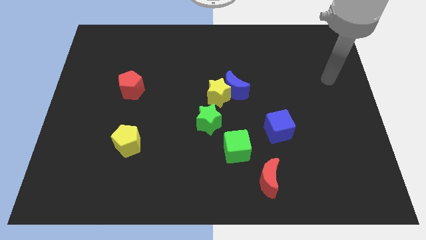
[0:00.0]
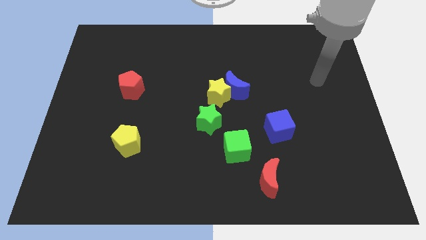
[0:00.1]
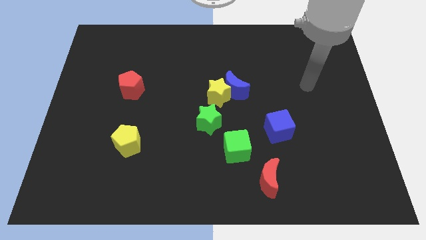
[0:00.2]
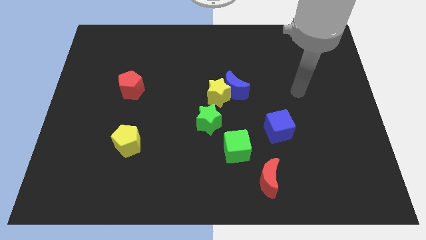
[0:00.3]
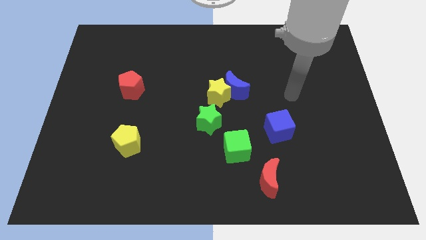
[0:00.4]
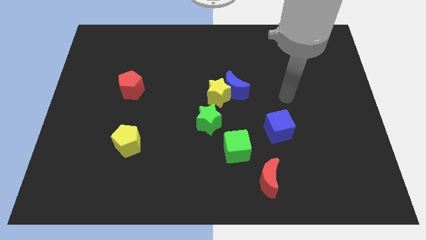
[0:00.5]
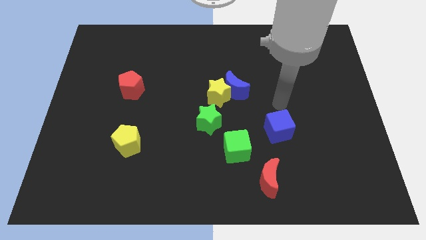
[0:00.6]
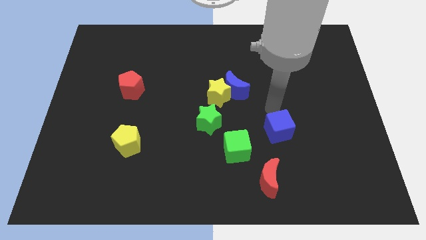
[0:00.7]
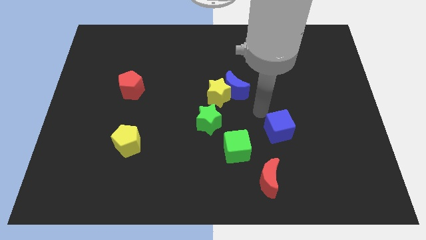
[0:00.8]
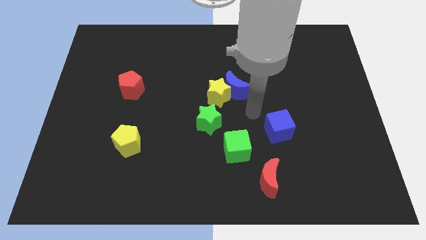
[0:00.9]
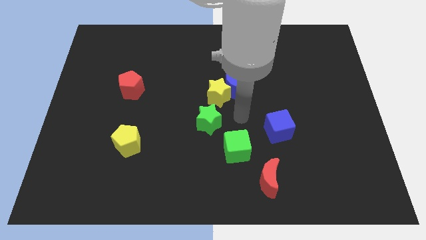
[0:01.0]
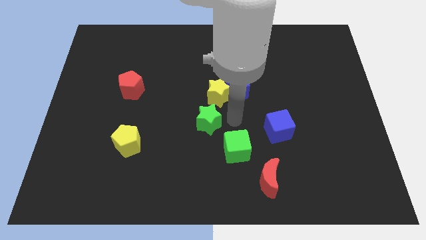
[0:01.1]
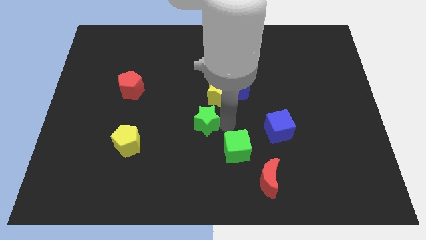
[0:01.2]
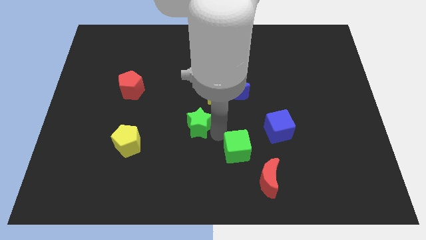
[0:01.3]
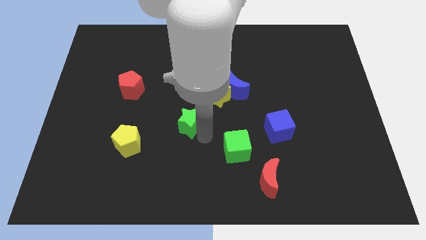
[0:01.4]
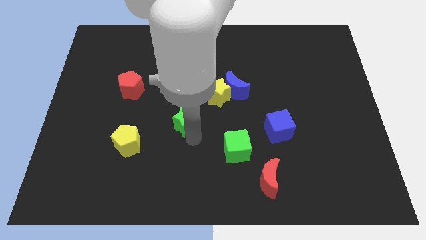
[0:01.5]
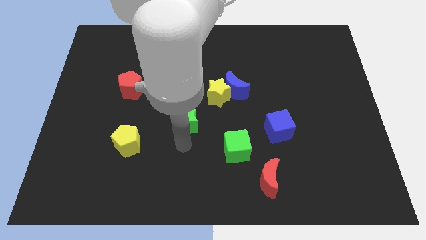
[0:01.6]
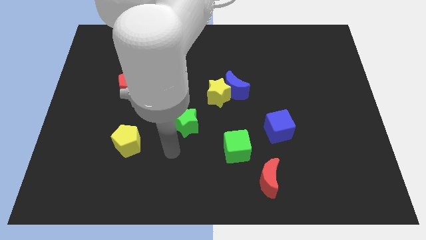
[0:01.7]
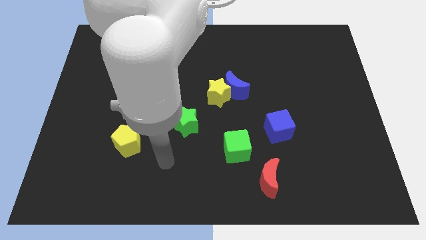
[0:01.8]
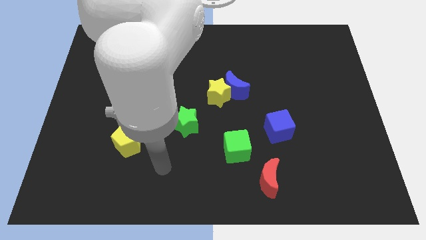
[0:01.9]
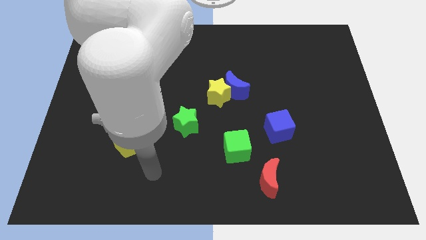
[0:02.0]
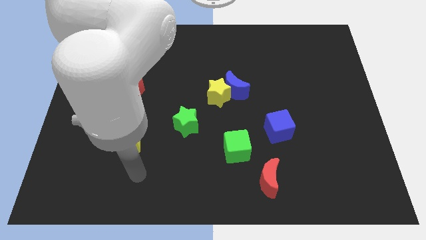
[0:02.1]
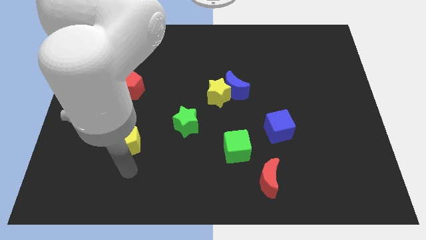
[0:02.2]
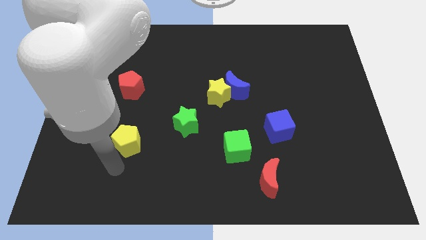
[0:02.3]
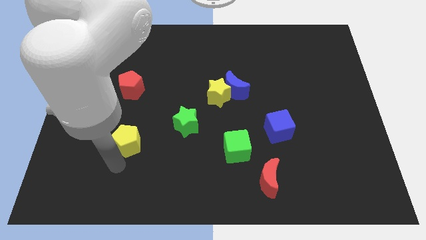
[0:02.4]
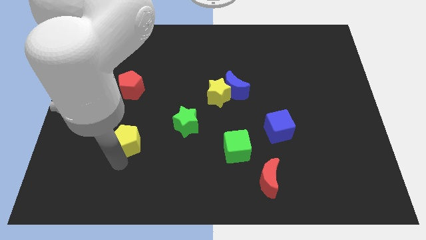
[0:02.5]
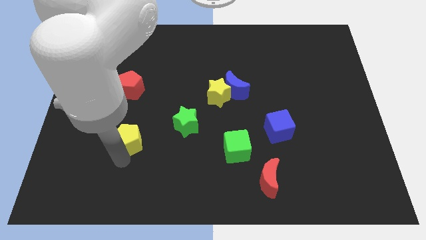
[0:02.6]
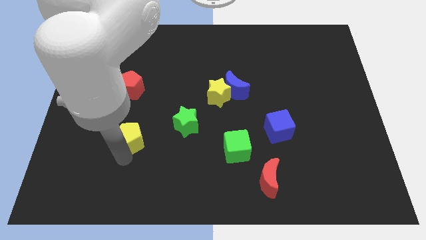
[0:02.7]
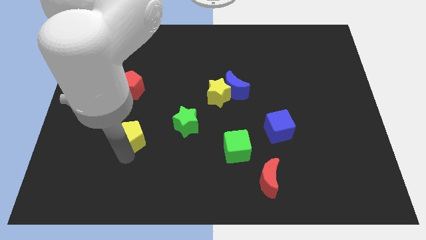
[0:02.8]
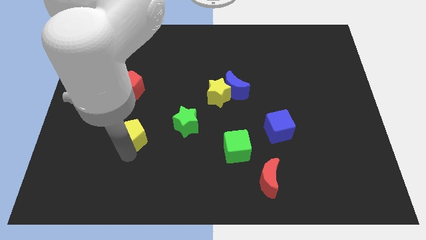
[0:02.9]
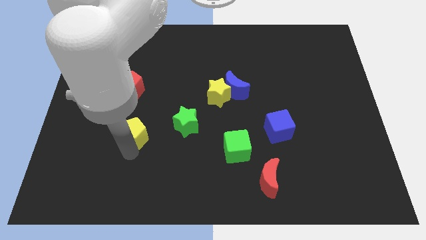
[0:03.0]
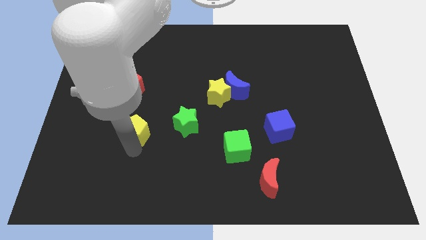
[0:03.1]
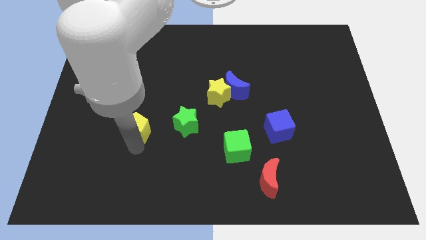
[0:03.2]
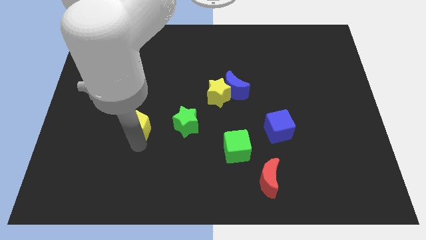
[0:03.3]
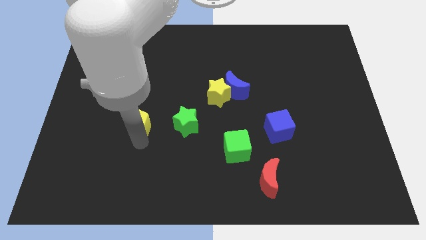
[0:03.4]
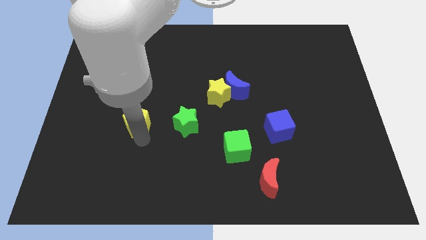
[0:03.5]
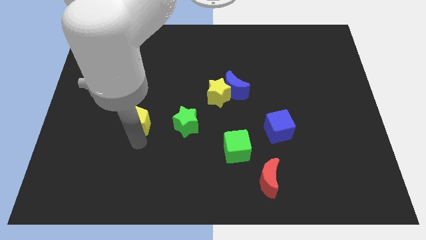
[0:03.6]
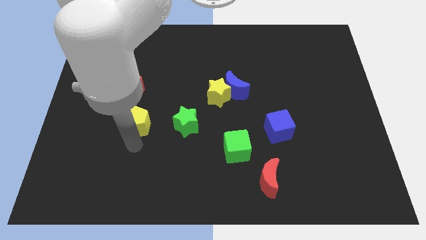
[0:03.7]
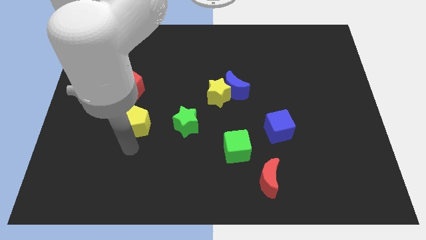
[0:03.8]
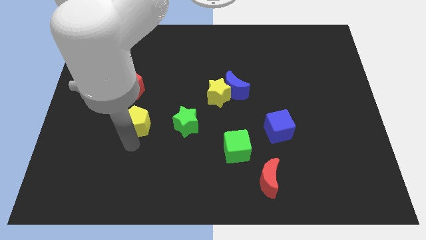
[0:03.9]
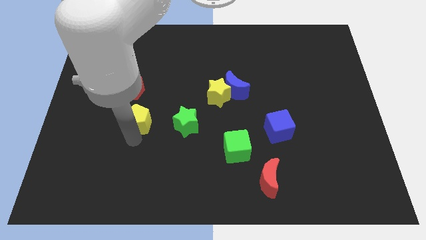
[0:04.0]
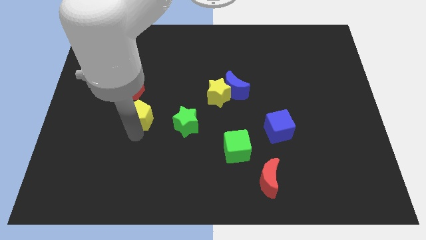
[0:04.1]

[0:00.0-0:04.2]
slightly push the yellow pentagon up

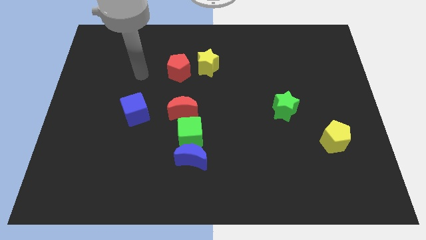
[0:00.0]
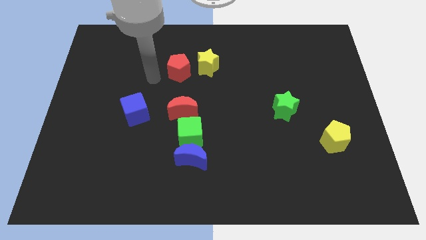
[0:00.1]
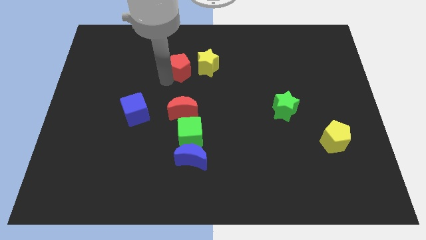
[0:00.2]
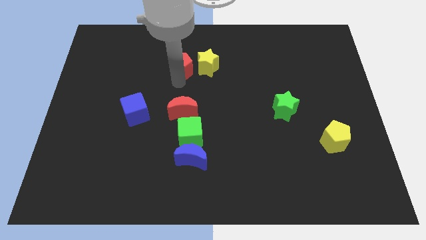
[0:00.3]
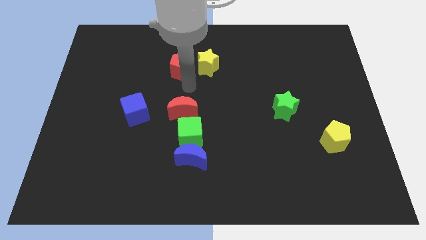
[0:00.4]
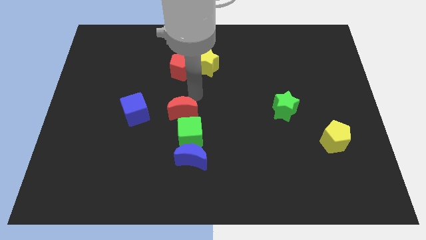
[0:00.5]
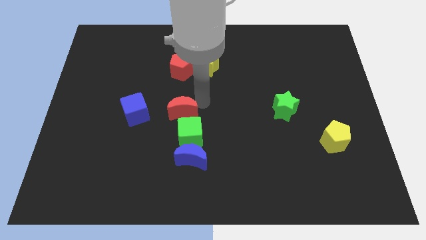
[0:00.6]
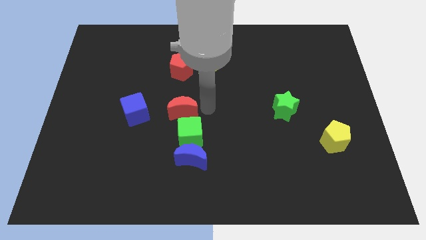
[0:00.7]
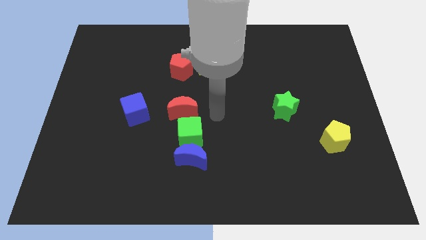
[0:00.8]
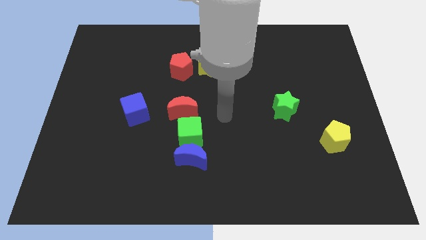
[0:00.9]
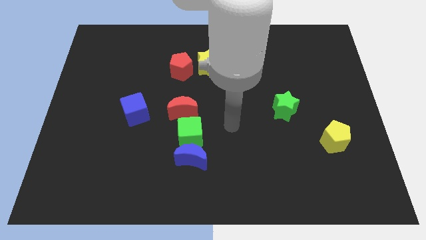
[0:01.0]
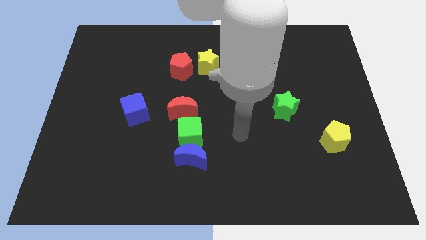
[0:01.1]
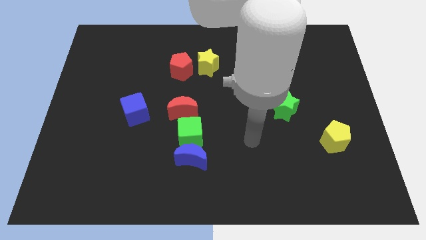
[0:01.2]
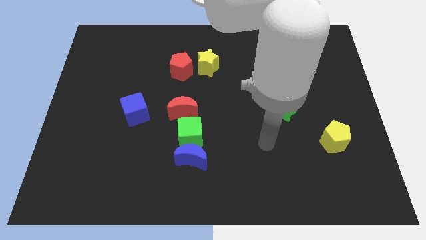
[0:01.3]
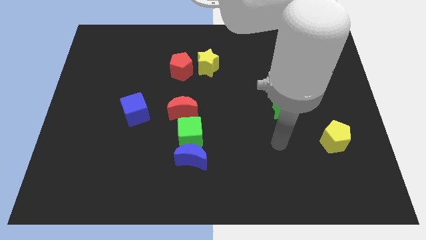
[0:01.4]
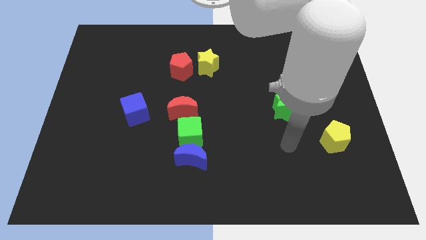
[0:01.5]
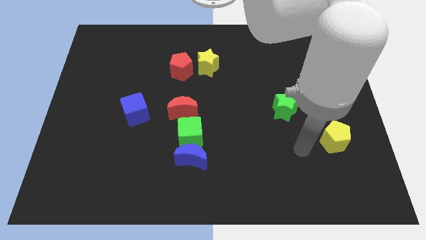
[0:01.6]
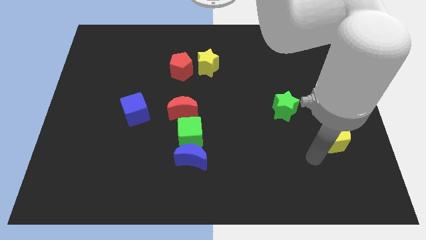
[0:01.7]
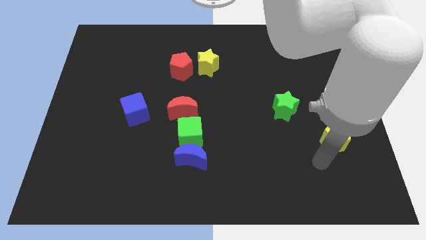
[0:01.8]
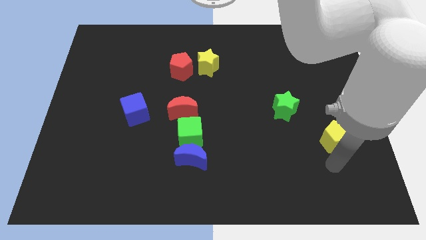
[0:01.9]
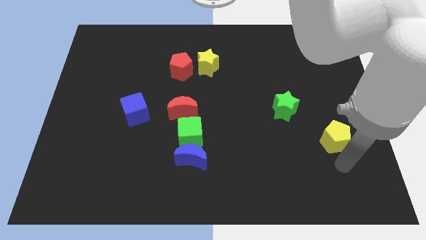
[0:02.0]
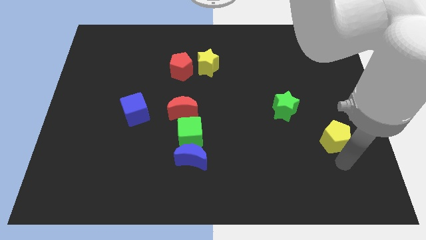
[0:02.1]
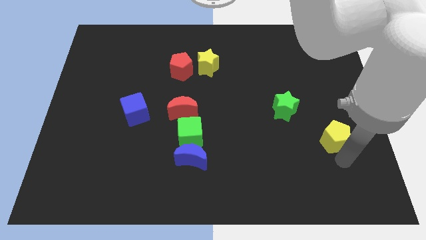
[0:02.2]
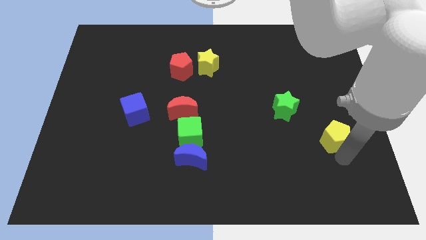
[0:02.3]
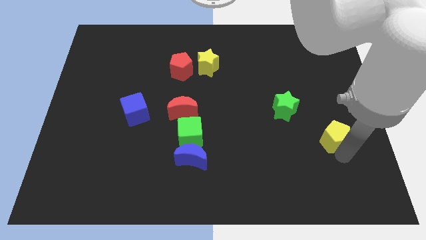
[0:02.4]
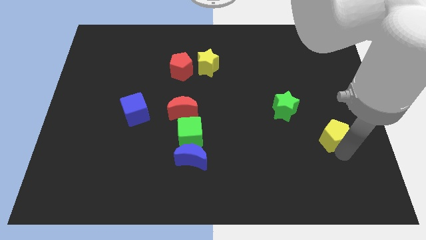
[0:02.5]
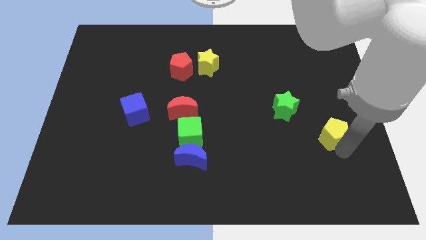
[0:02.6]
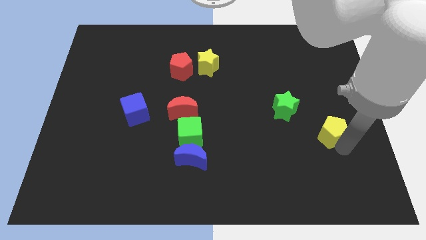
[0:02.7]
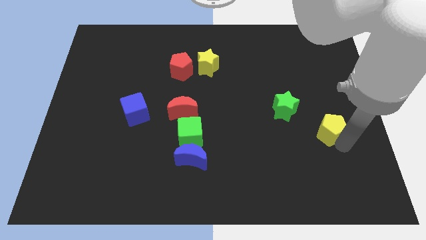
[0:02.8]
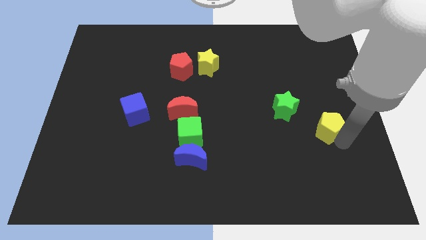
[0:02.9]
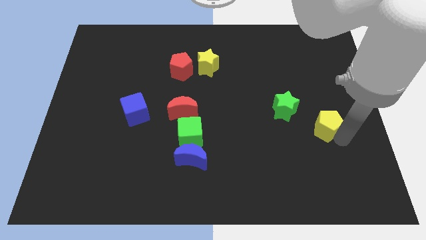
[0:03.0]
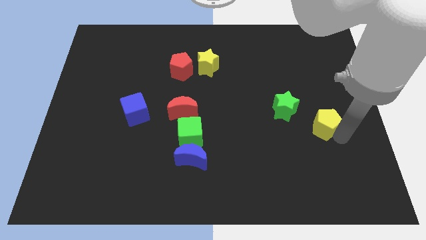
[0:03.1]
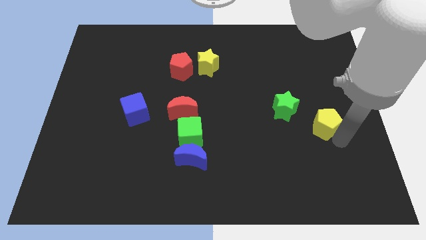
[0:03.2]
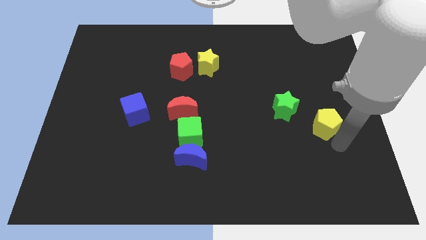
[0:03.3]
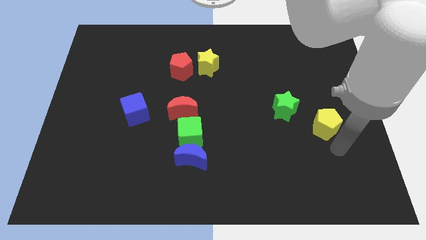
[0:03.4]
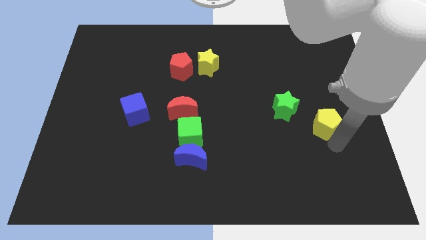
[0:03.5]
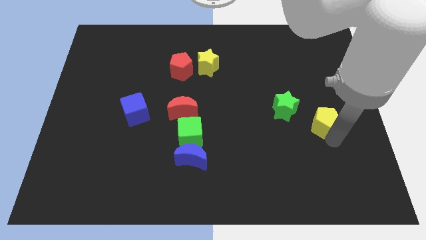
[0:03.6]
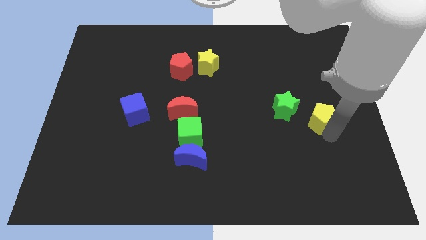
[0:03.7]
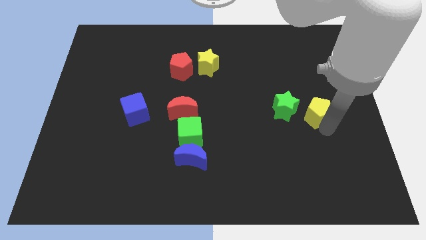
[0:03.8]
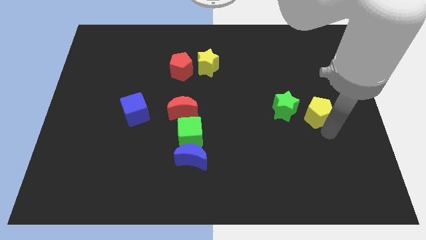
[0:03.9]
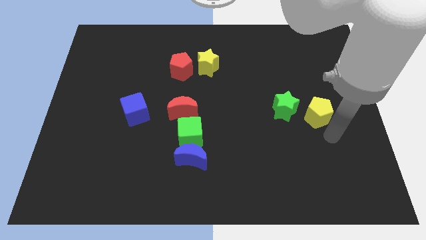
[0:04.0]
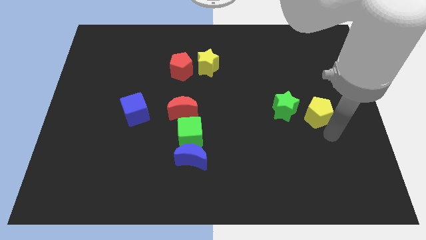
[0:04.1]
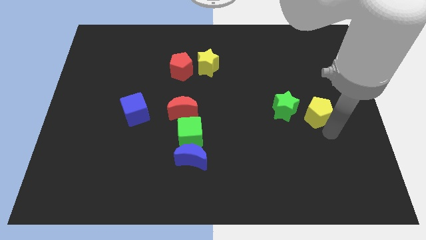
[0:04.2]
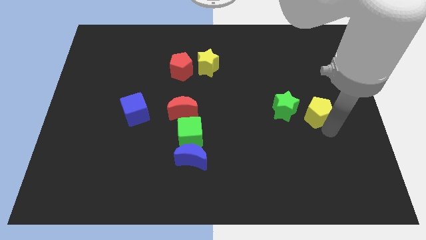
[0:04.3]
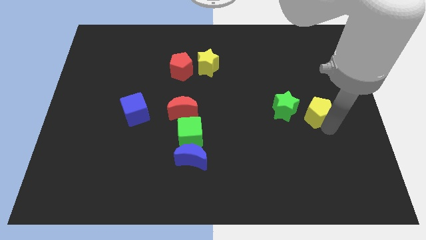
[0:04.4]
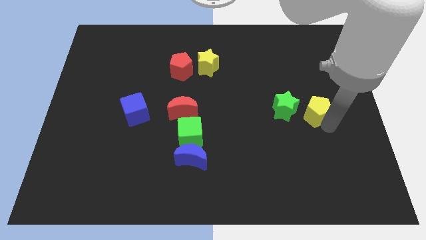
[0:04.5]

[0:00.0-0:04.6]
slightly move the yellow pentagon upwards and to the left
